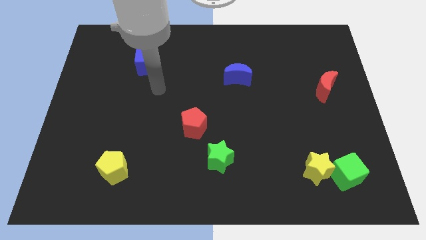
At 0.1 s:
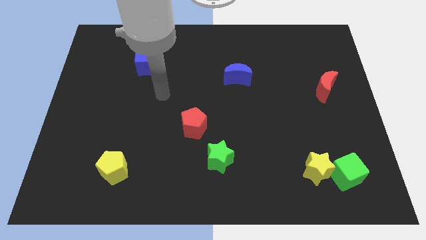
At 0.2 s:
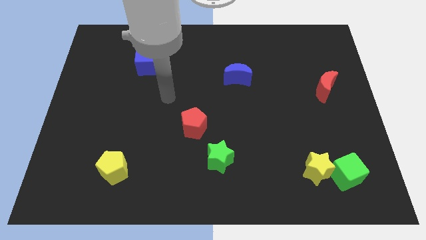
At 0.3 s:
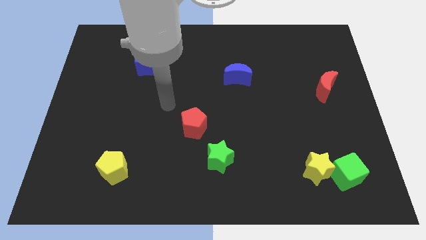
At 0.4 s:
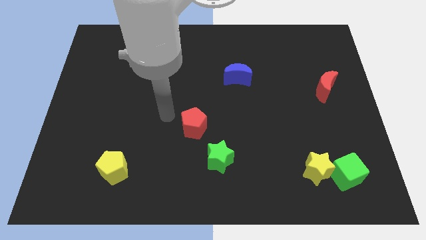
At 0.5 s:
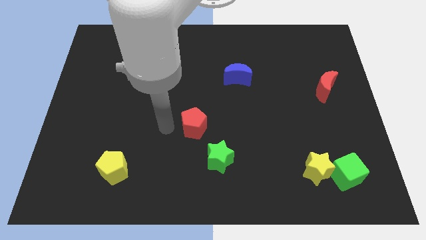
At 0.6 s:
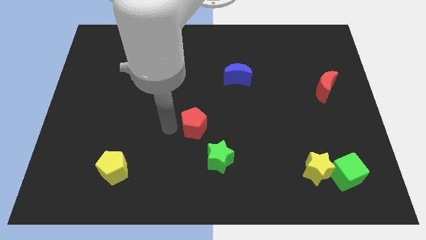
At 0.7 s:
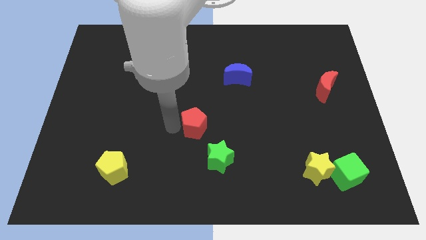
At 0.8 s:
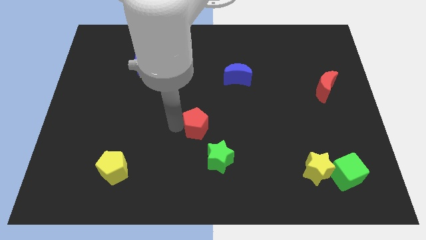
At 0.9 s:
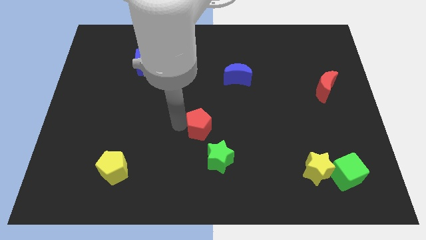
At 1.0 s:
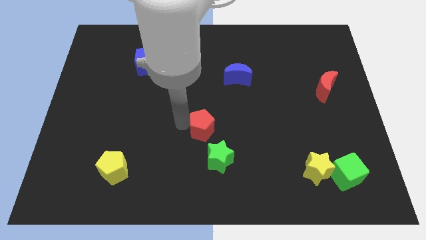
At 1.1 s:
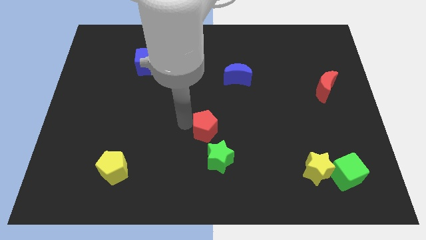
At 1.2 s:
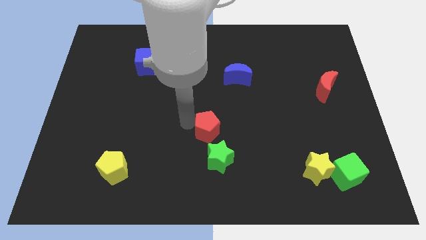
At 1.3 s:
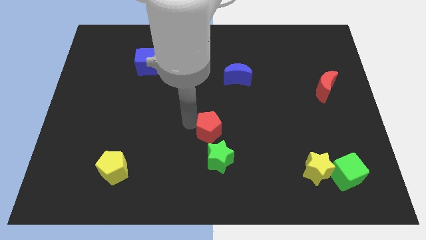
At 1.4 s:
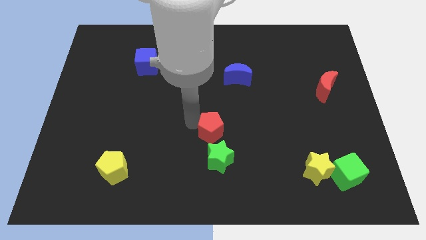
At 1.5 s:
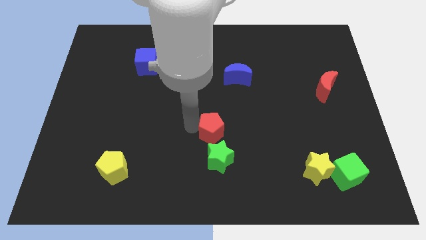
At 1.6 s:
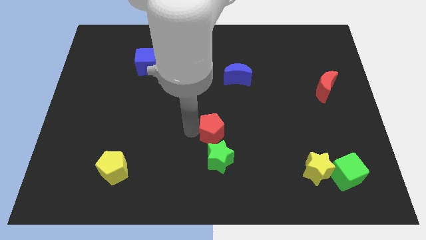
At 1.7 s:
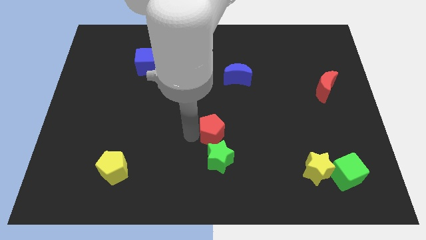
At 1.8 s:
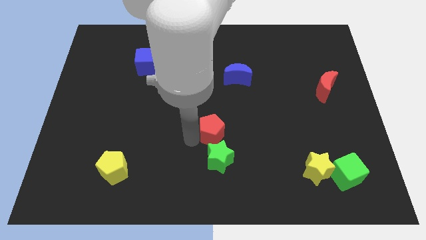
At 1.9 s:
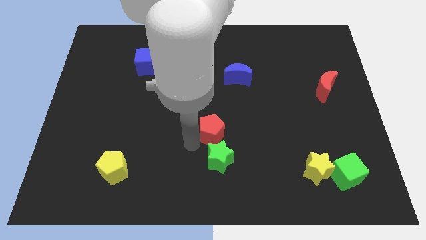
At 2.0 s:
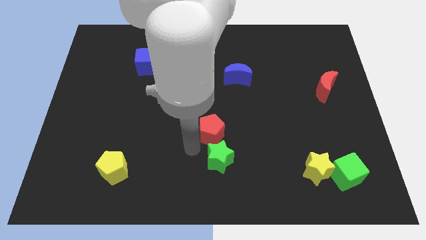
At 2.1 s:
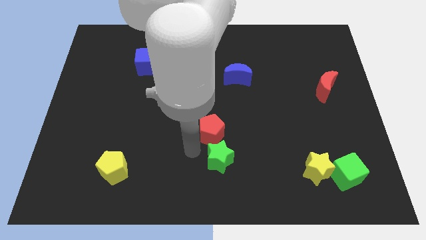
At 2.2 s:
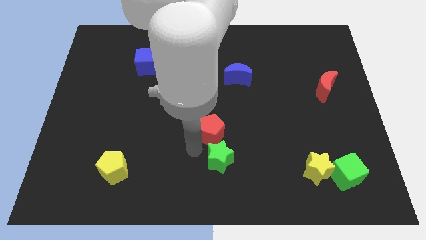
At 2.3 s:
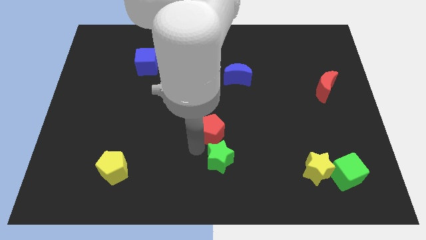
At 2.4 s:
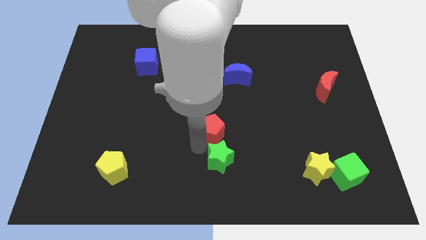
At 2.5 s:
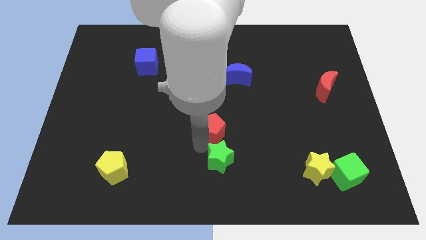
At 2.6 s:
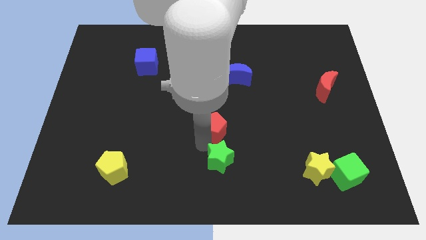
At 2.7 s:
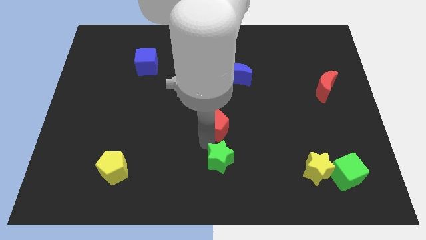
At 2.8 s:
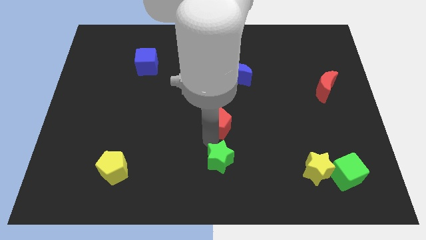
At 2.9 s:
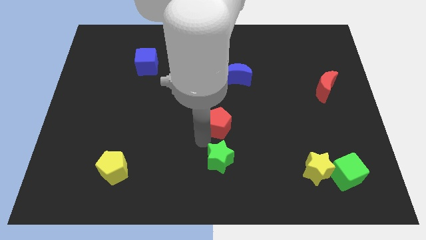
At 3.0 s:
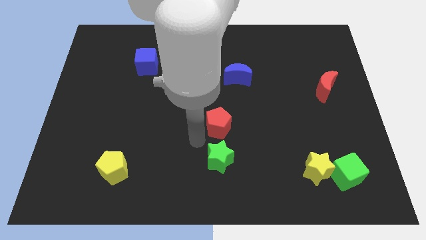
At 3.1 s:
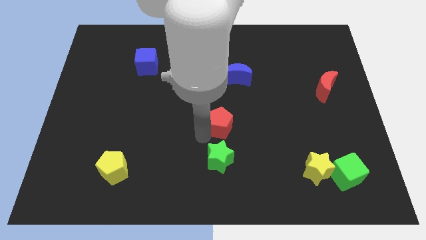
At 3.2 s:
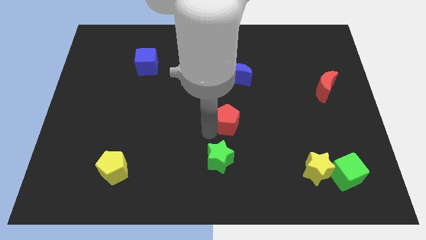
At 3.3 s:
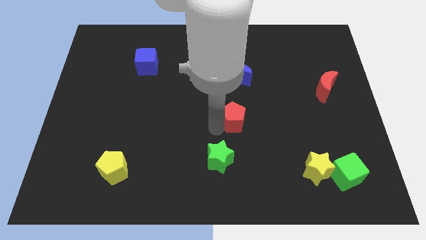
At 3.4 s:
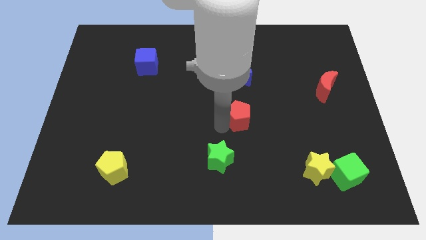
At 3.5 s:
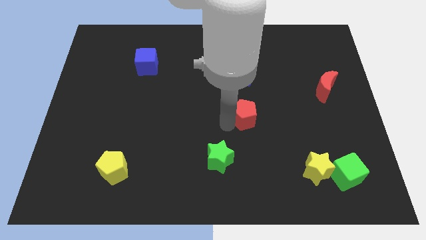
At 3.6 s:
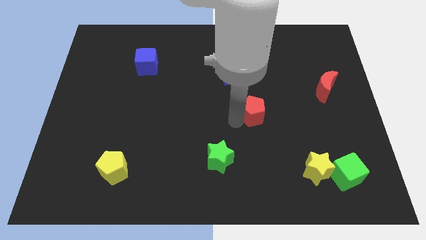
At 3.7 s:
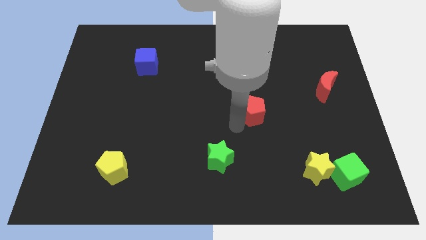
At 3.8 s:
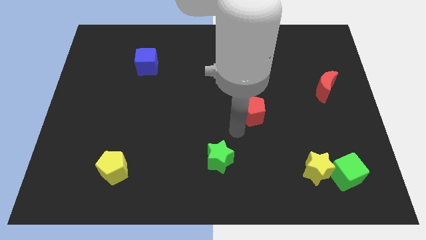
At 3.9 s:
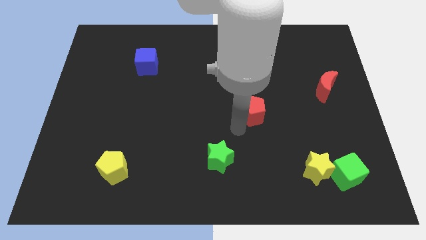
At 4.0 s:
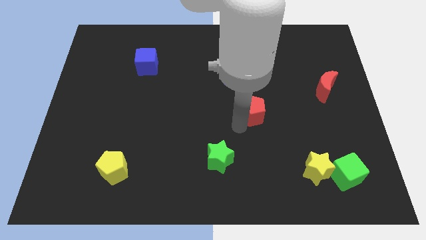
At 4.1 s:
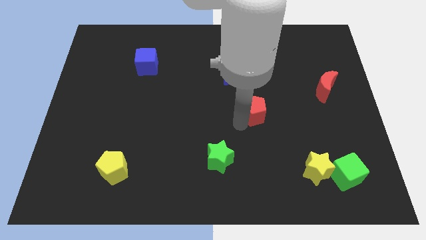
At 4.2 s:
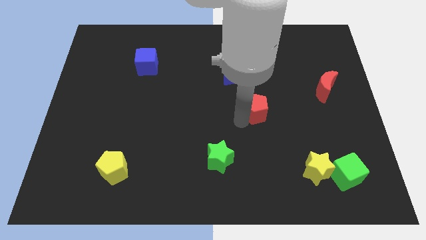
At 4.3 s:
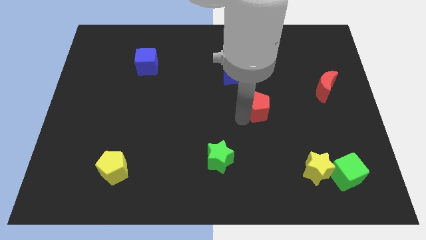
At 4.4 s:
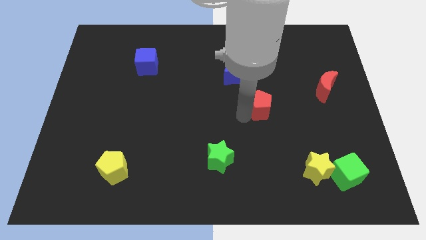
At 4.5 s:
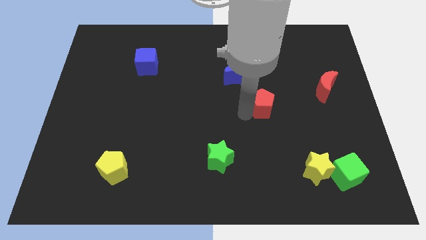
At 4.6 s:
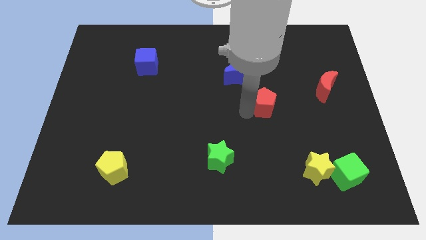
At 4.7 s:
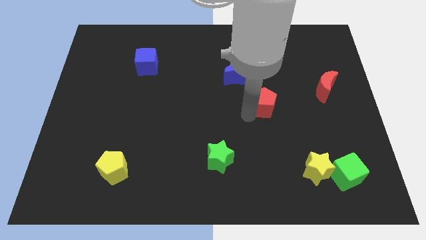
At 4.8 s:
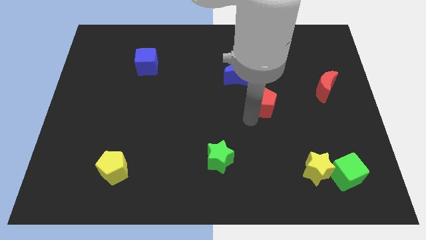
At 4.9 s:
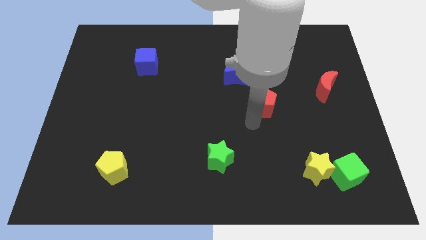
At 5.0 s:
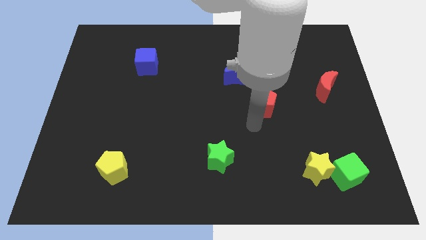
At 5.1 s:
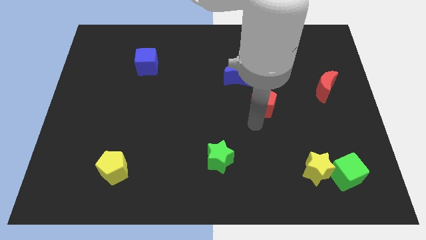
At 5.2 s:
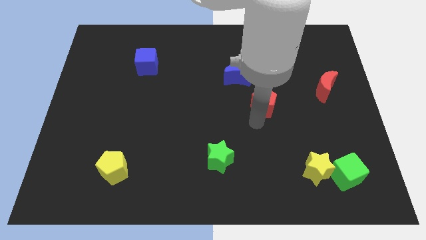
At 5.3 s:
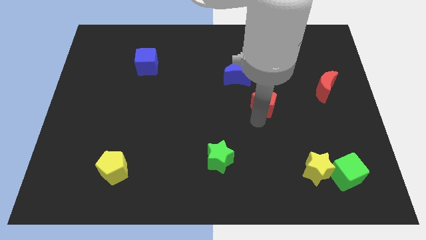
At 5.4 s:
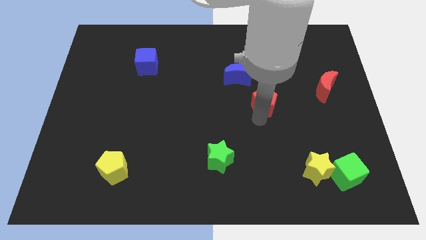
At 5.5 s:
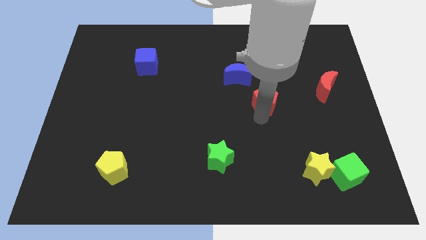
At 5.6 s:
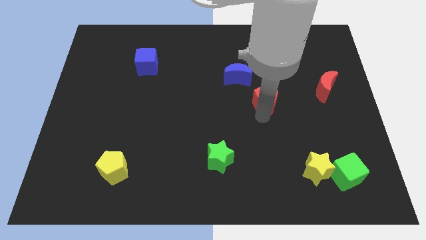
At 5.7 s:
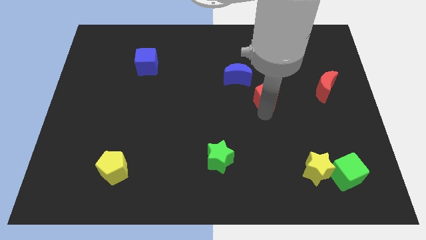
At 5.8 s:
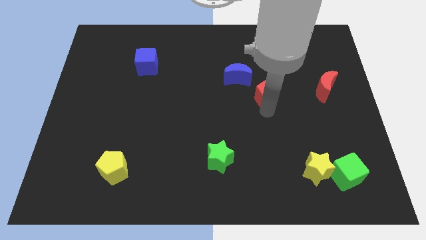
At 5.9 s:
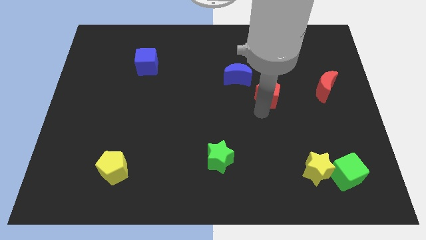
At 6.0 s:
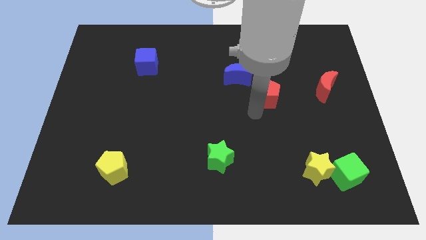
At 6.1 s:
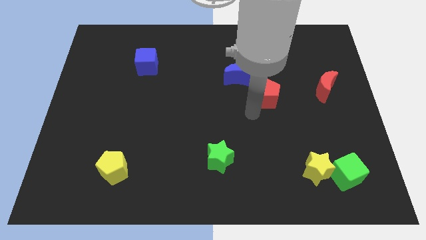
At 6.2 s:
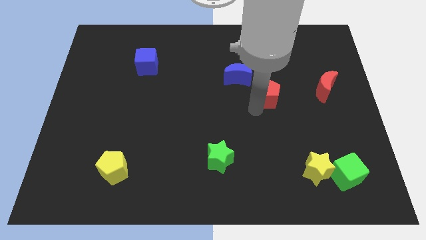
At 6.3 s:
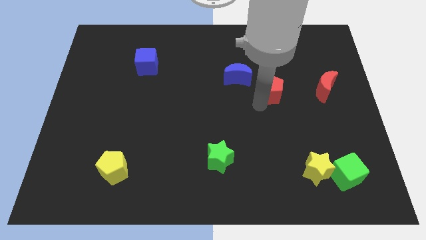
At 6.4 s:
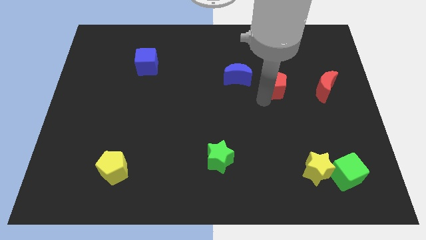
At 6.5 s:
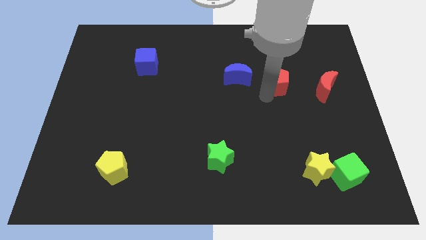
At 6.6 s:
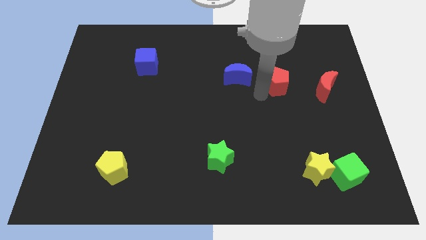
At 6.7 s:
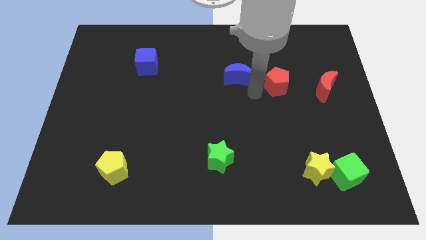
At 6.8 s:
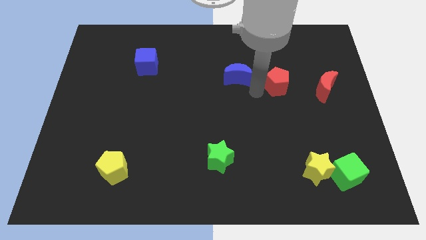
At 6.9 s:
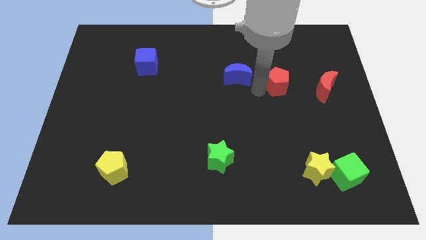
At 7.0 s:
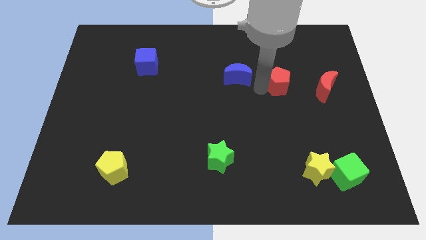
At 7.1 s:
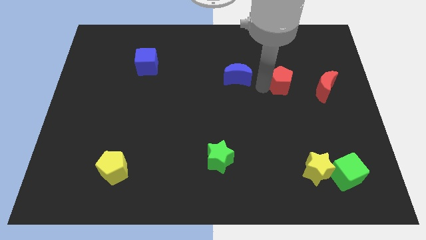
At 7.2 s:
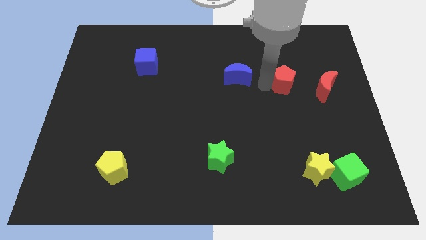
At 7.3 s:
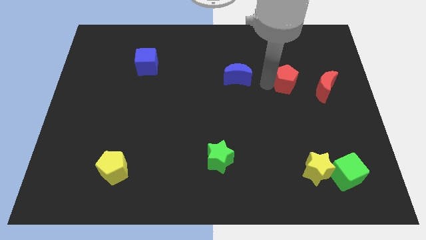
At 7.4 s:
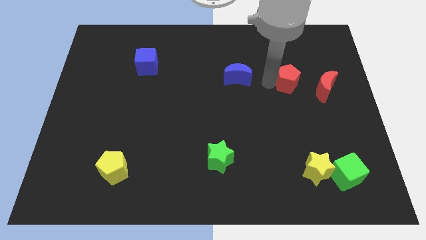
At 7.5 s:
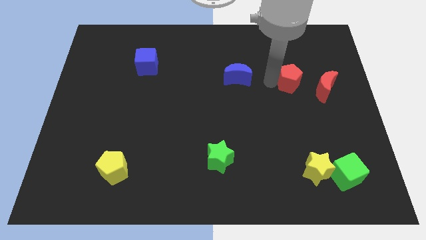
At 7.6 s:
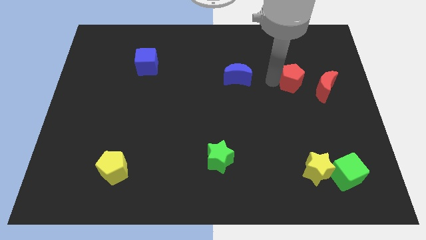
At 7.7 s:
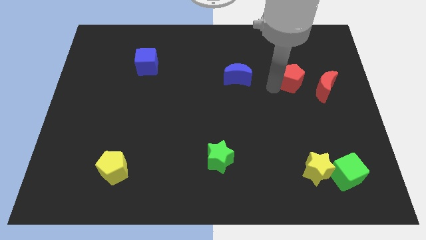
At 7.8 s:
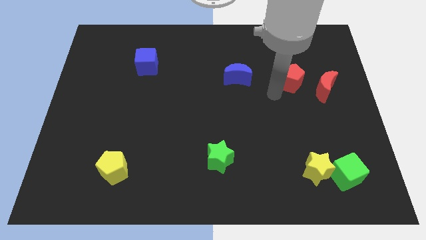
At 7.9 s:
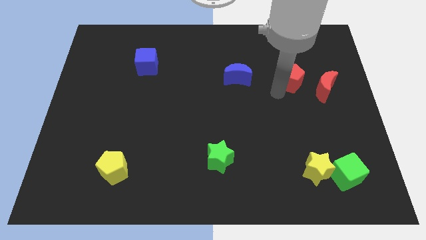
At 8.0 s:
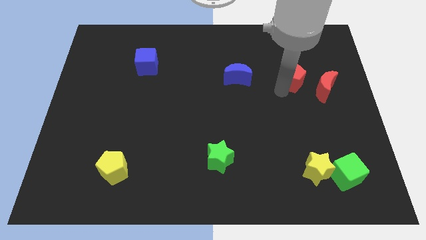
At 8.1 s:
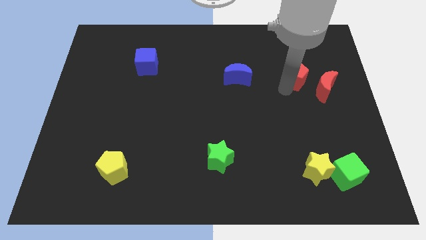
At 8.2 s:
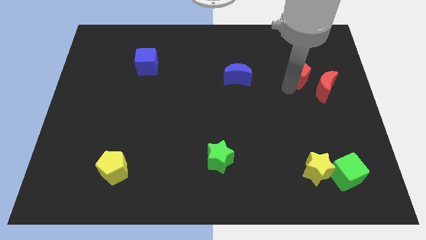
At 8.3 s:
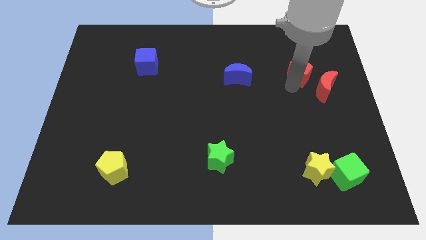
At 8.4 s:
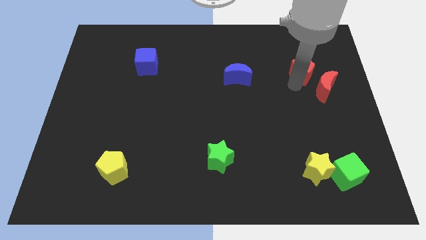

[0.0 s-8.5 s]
push the red pentagon to the top of the red moon
